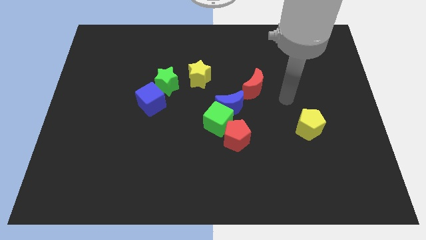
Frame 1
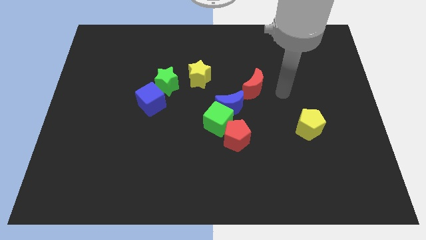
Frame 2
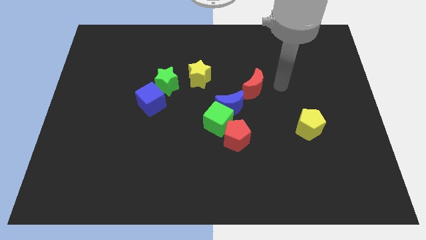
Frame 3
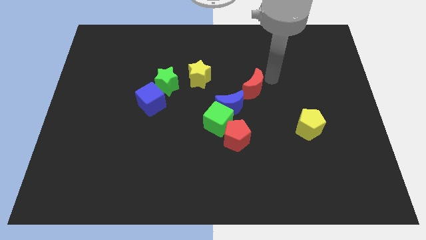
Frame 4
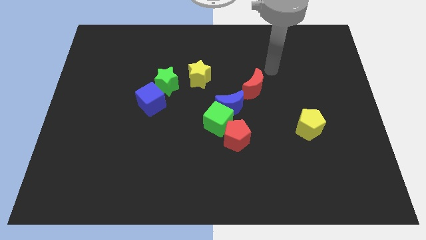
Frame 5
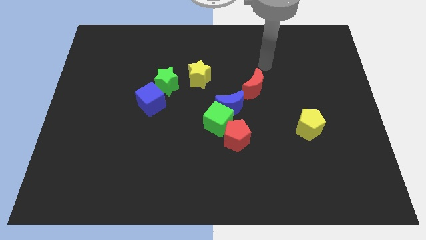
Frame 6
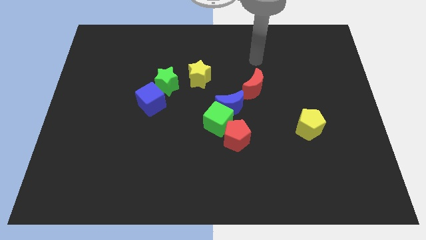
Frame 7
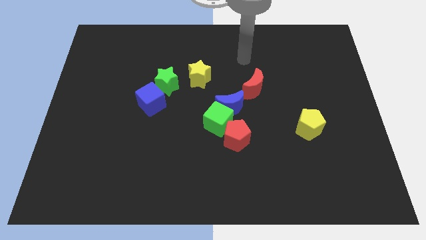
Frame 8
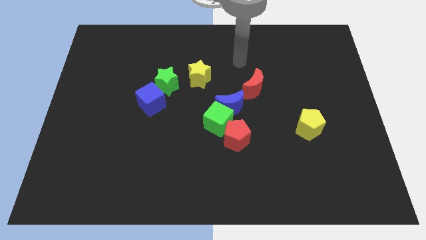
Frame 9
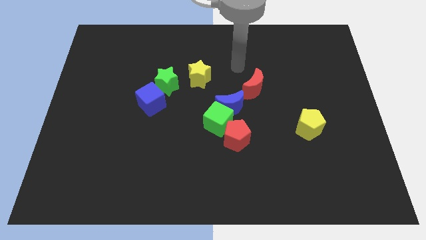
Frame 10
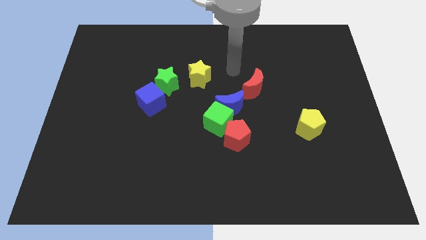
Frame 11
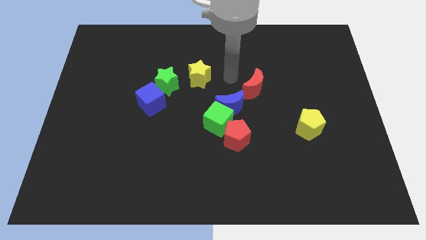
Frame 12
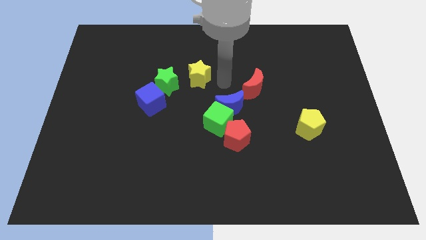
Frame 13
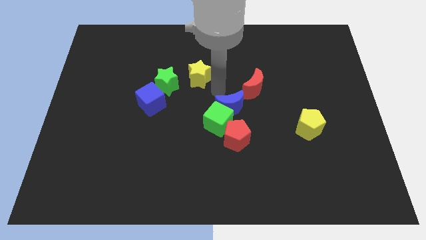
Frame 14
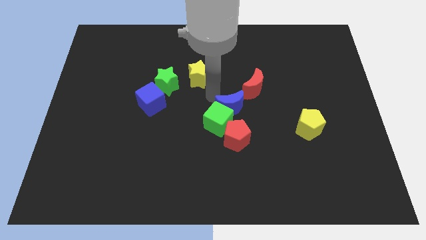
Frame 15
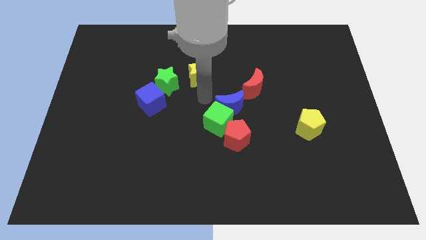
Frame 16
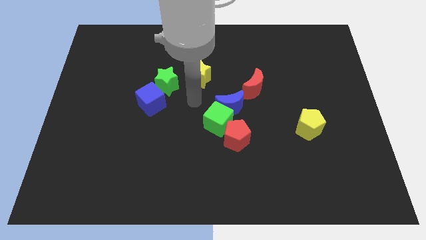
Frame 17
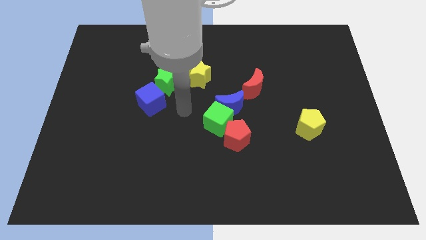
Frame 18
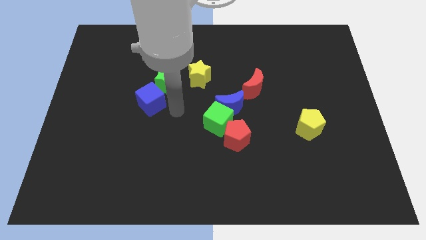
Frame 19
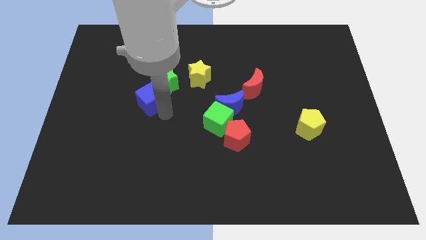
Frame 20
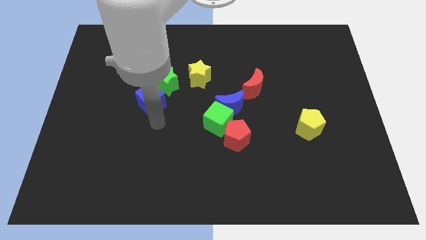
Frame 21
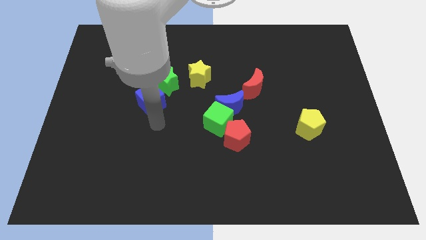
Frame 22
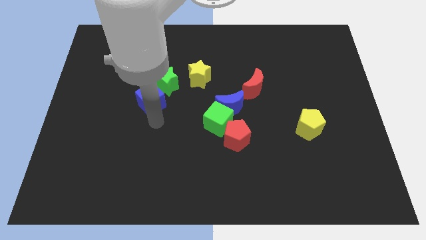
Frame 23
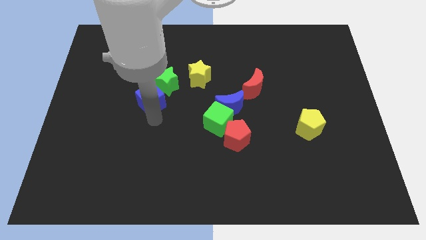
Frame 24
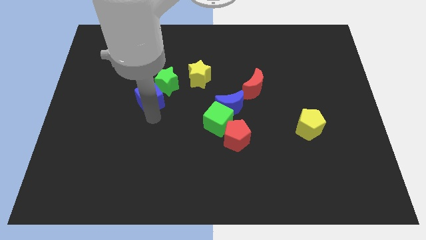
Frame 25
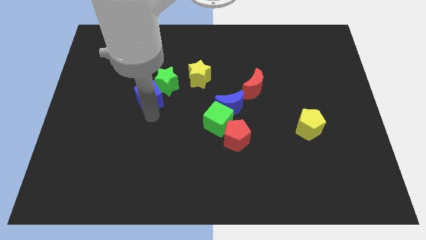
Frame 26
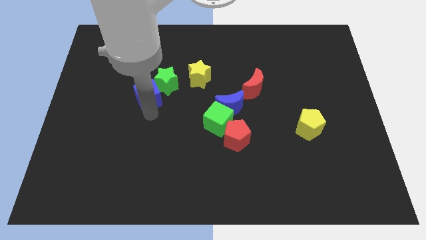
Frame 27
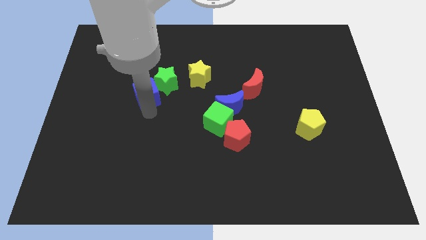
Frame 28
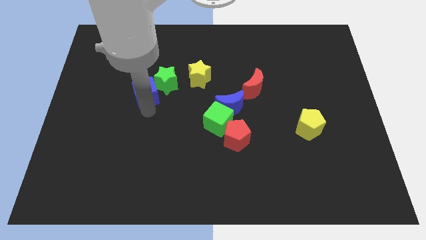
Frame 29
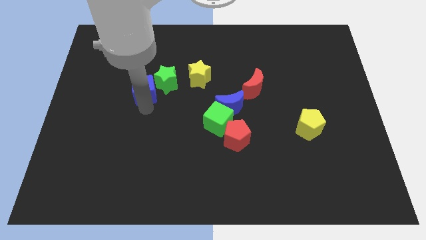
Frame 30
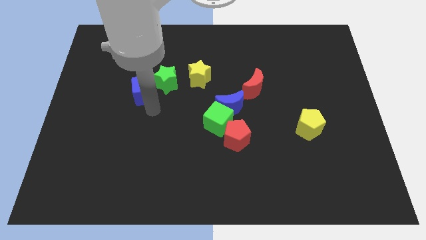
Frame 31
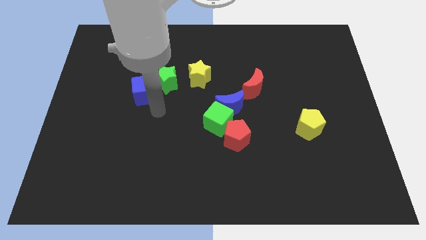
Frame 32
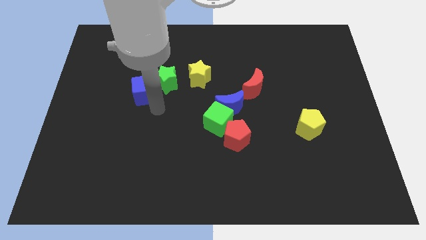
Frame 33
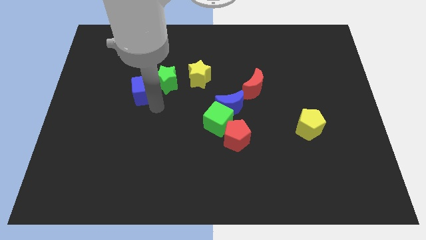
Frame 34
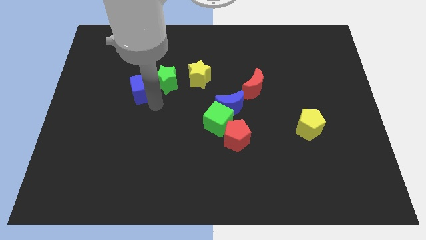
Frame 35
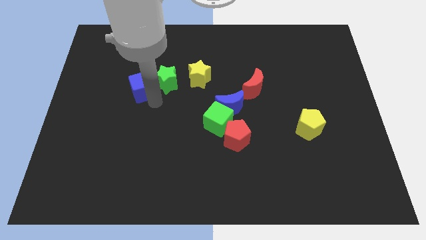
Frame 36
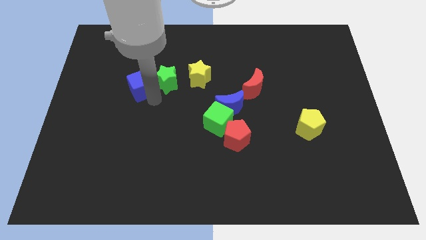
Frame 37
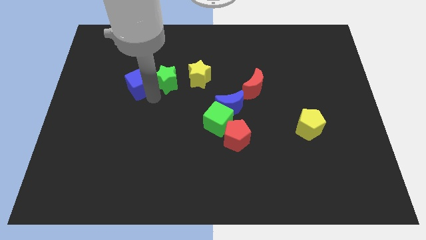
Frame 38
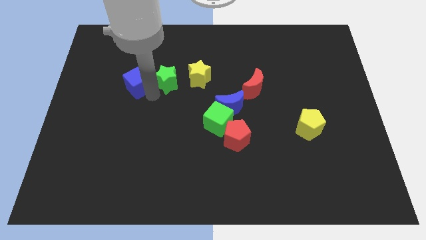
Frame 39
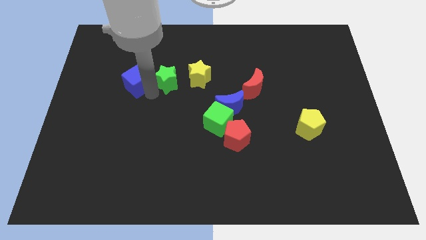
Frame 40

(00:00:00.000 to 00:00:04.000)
move the blue cube up and to the left diagonally a little bit

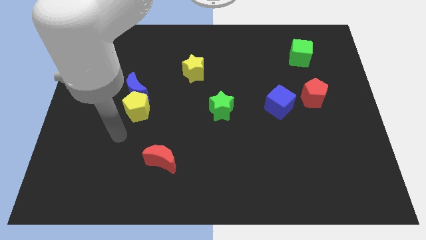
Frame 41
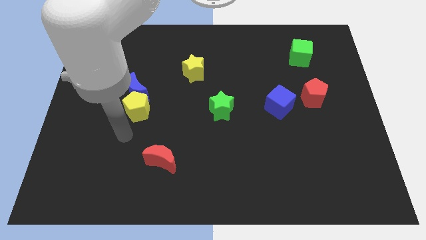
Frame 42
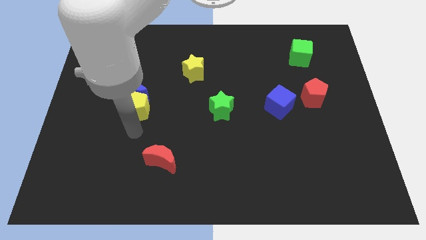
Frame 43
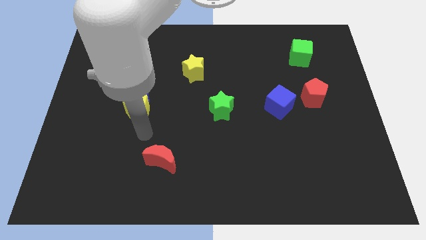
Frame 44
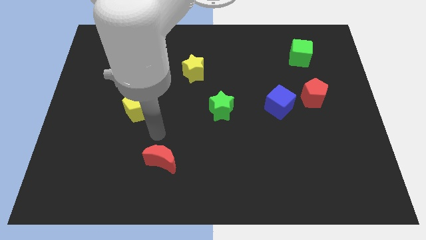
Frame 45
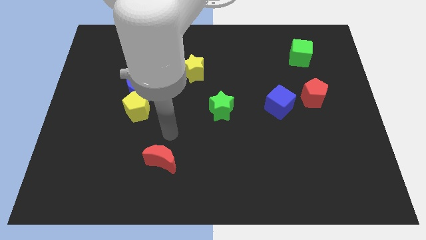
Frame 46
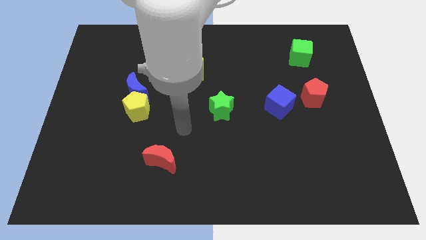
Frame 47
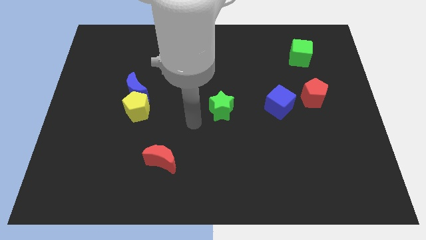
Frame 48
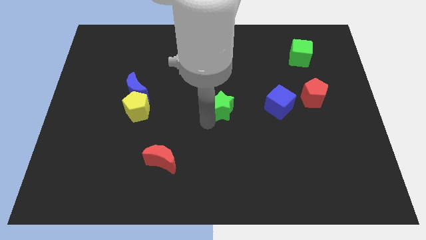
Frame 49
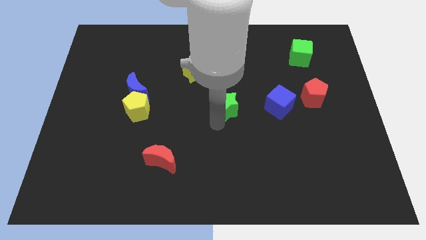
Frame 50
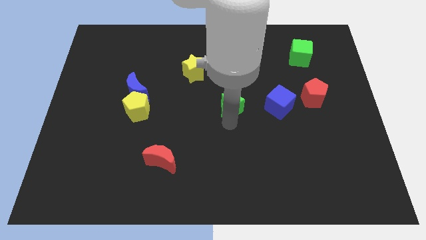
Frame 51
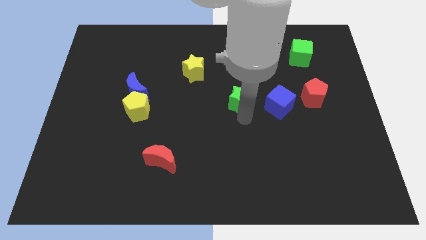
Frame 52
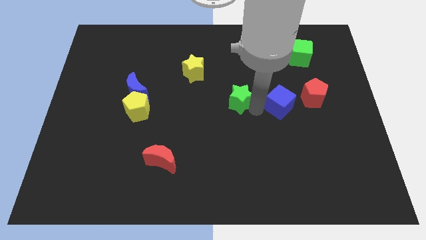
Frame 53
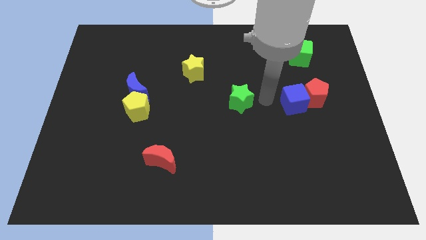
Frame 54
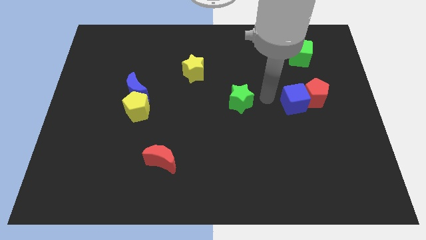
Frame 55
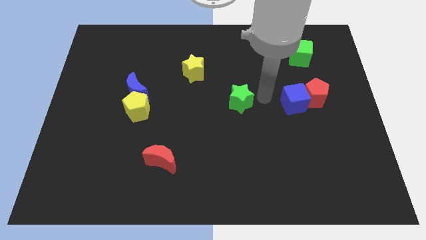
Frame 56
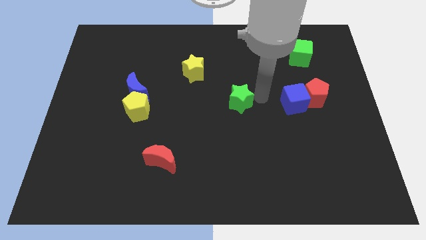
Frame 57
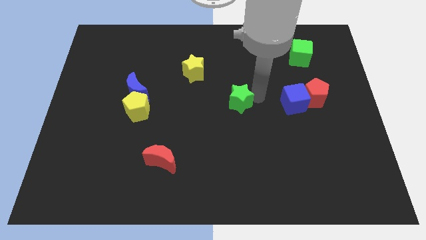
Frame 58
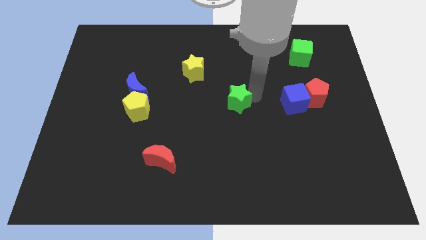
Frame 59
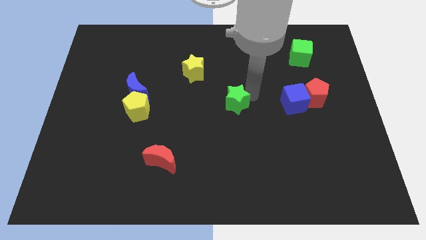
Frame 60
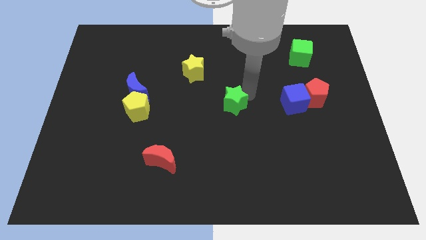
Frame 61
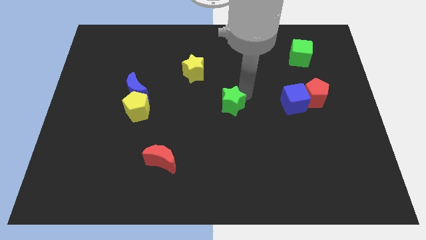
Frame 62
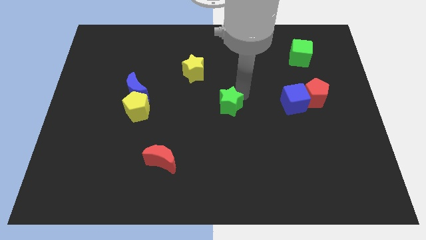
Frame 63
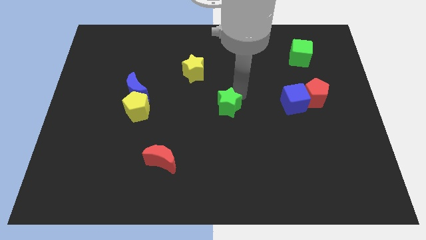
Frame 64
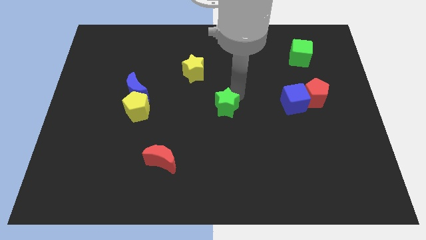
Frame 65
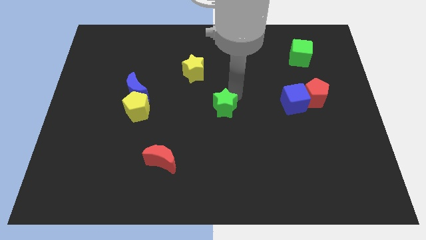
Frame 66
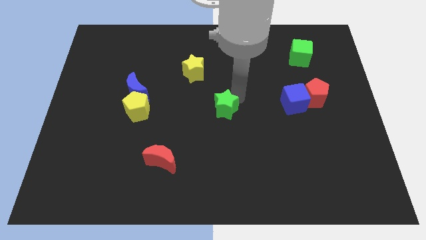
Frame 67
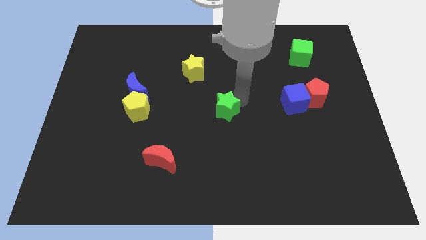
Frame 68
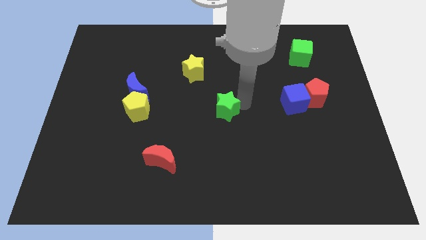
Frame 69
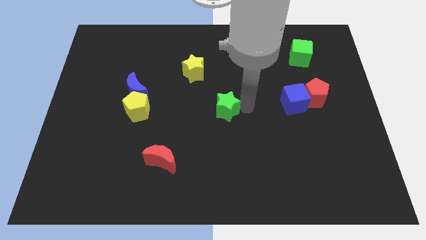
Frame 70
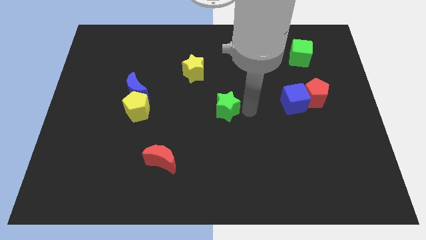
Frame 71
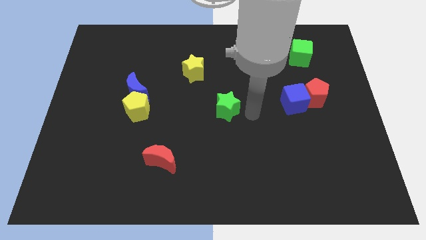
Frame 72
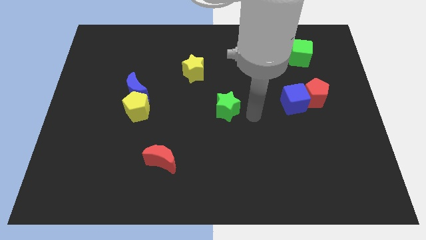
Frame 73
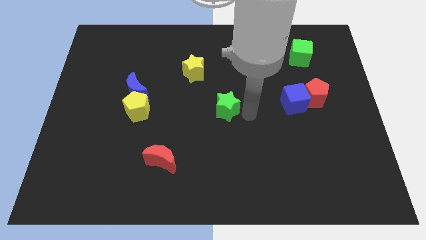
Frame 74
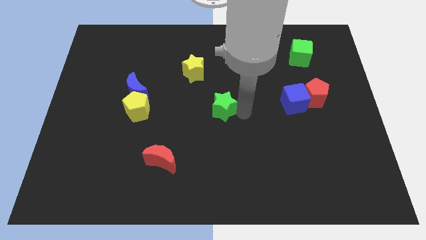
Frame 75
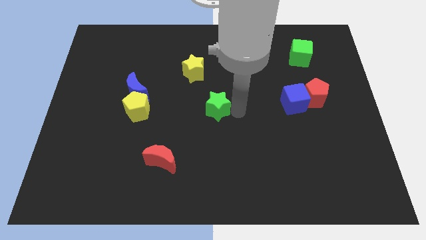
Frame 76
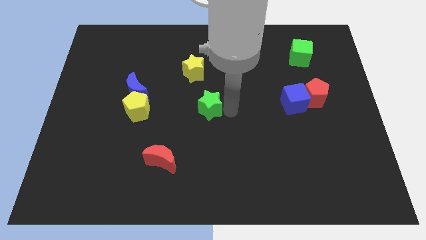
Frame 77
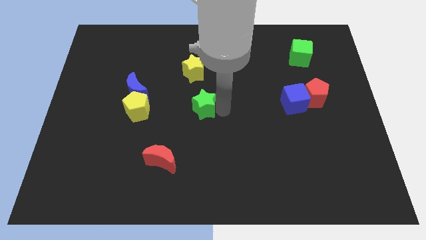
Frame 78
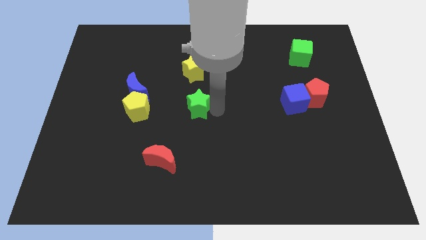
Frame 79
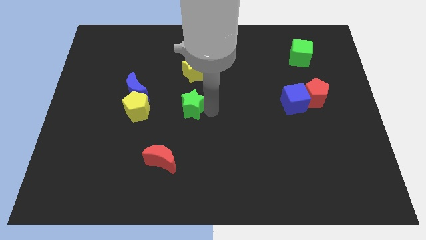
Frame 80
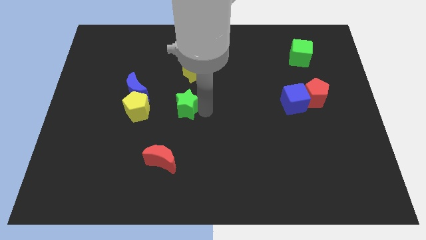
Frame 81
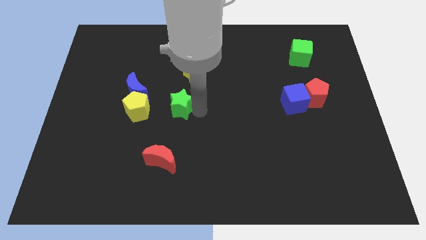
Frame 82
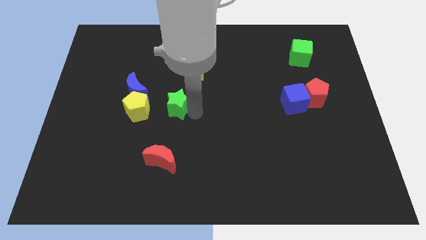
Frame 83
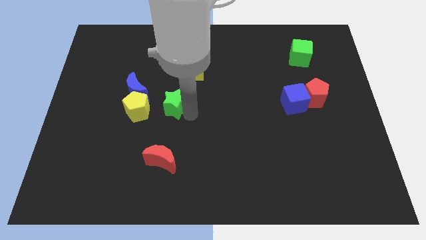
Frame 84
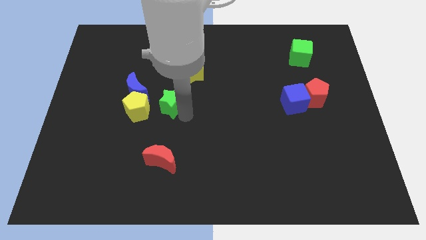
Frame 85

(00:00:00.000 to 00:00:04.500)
move the green star upwards and to the left diagonally slightly
